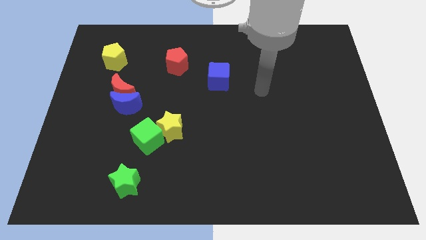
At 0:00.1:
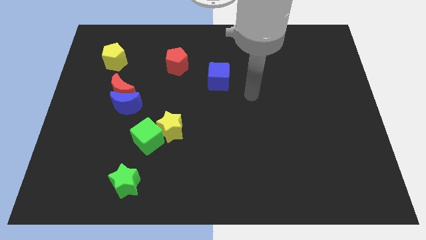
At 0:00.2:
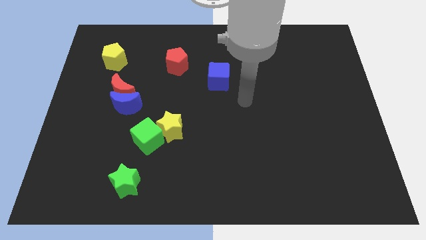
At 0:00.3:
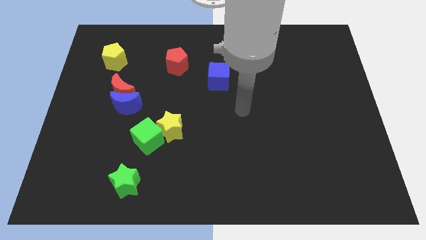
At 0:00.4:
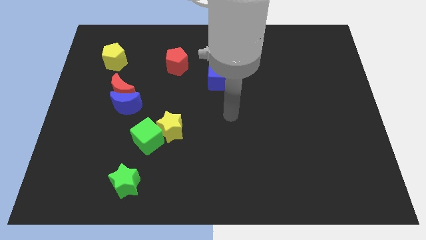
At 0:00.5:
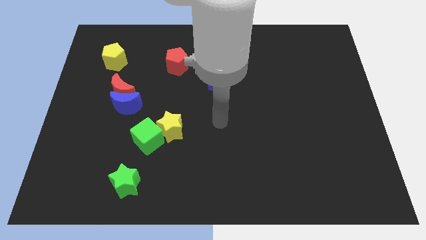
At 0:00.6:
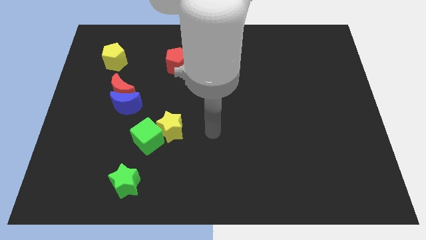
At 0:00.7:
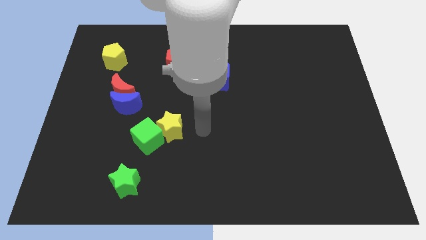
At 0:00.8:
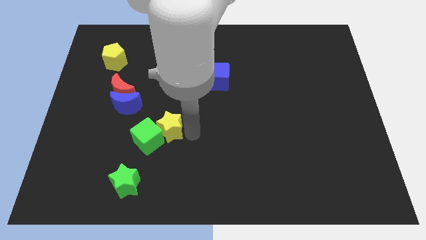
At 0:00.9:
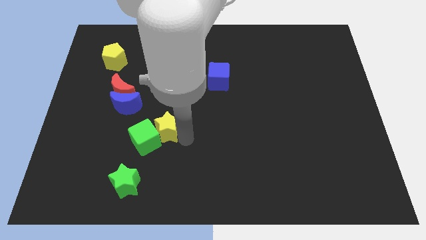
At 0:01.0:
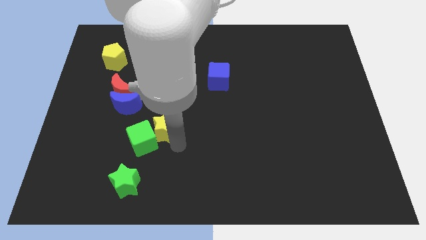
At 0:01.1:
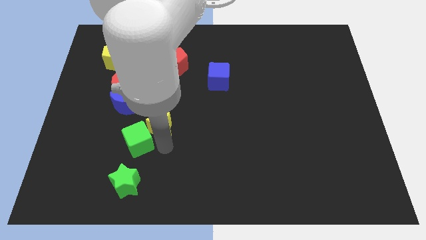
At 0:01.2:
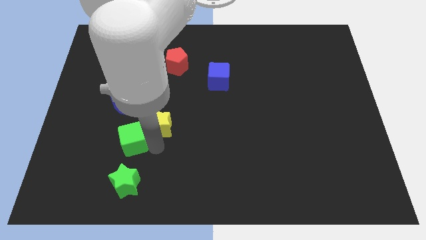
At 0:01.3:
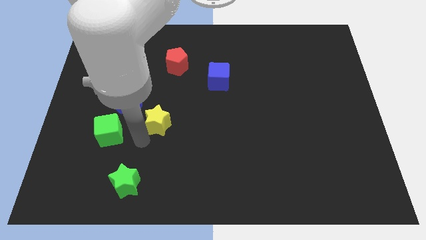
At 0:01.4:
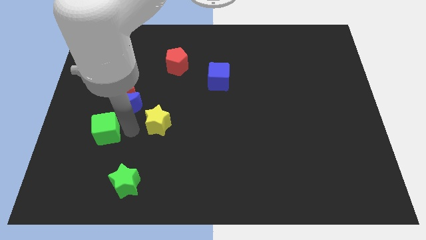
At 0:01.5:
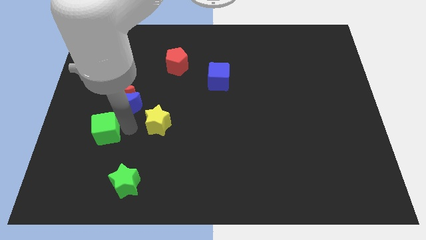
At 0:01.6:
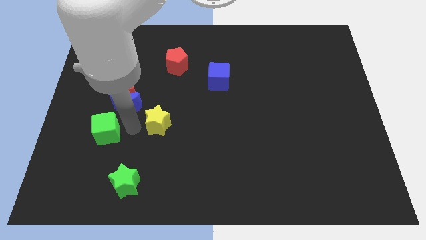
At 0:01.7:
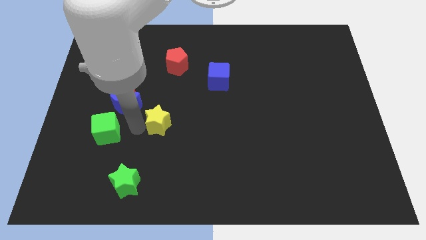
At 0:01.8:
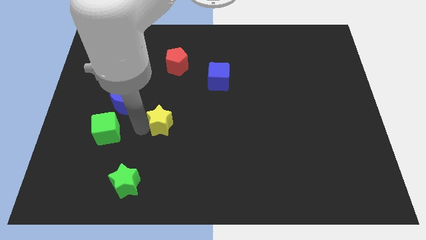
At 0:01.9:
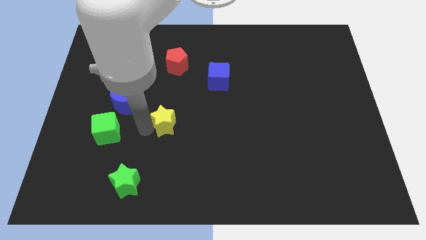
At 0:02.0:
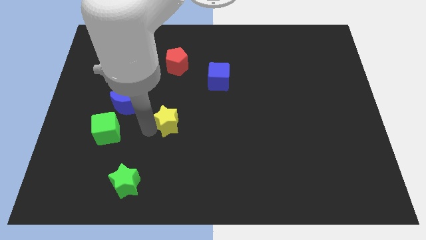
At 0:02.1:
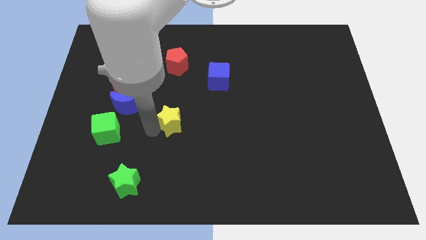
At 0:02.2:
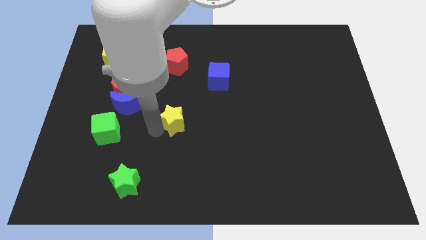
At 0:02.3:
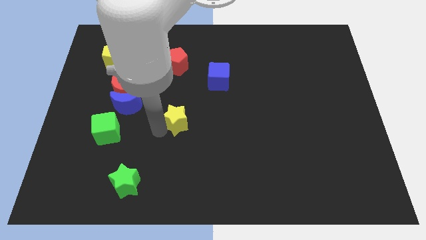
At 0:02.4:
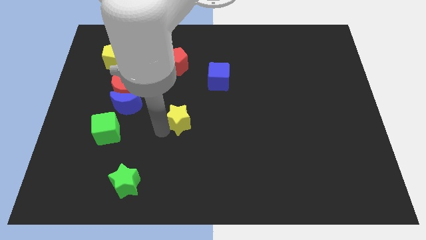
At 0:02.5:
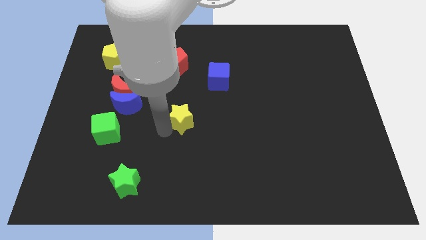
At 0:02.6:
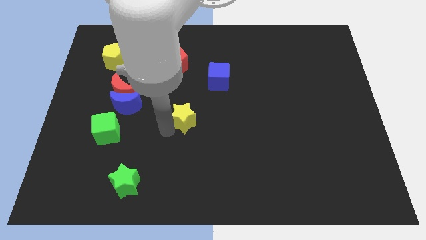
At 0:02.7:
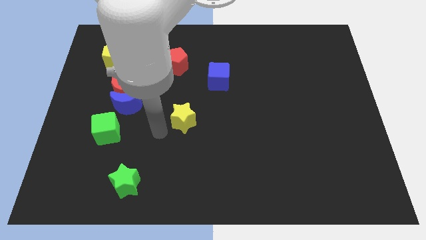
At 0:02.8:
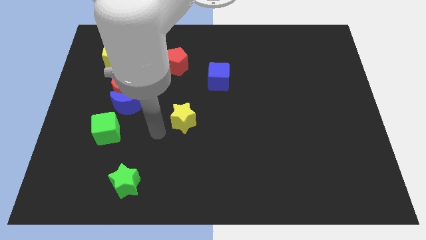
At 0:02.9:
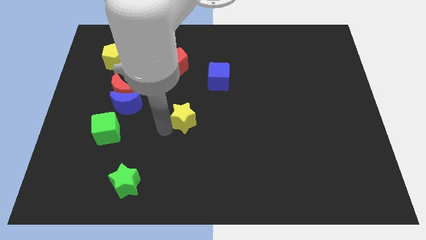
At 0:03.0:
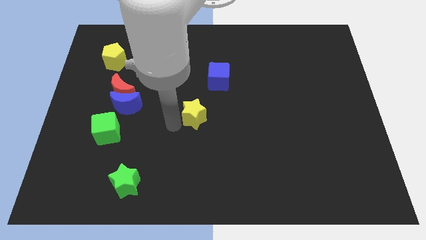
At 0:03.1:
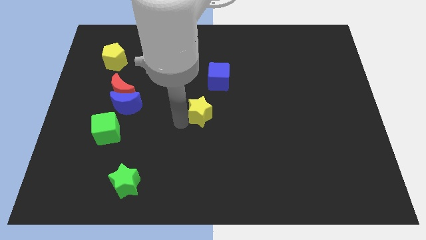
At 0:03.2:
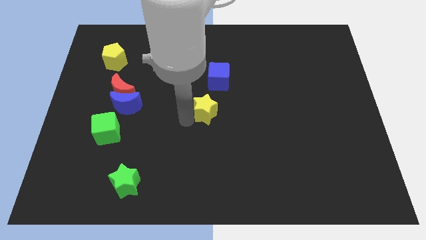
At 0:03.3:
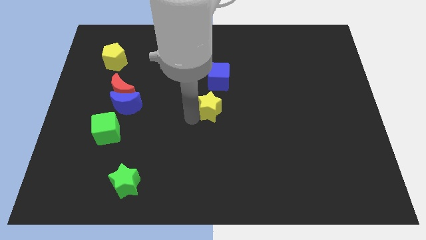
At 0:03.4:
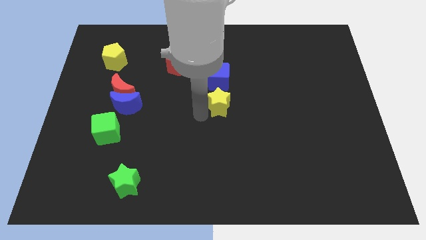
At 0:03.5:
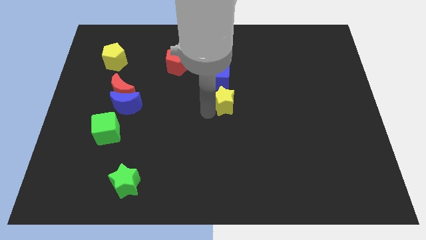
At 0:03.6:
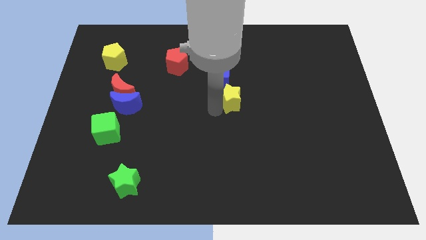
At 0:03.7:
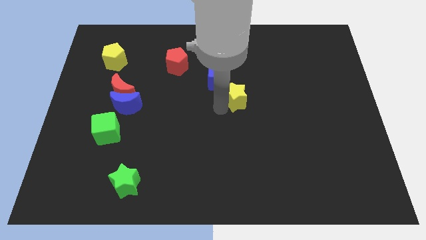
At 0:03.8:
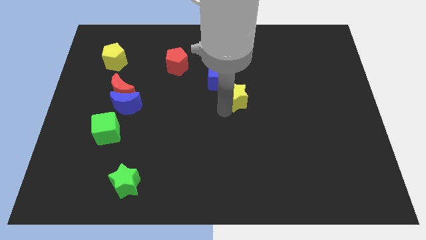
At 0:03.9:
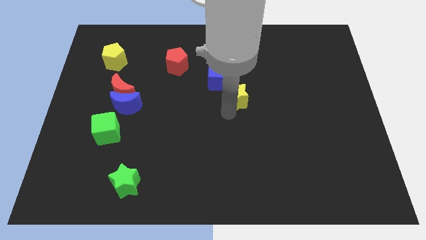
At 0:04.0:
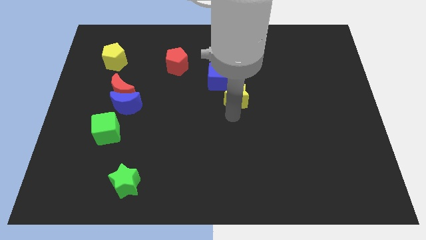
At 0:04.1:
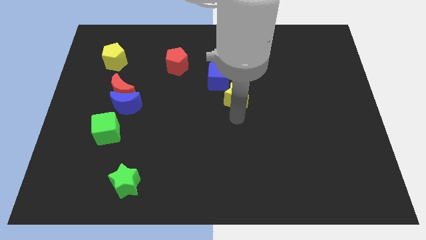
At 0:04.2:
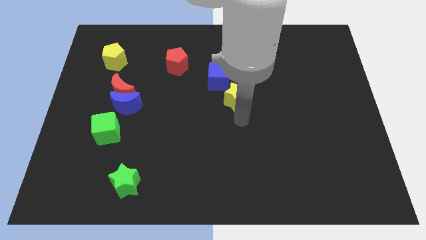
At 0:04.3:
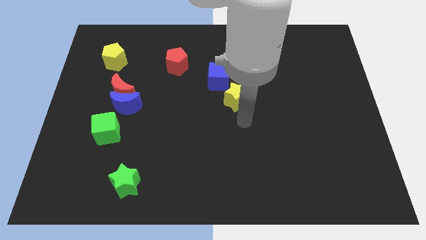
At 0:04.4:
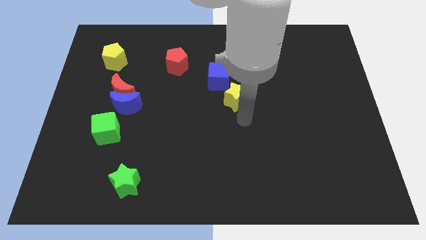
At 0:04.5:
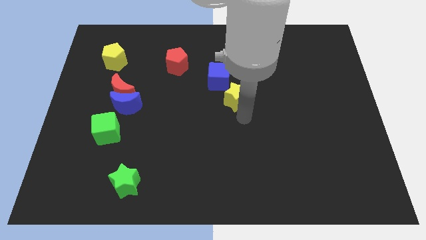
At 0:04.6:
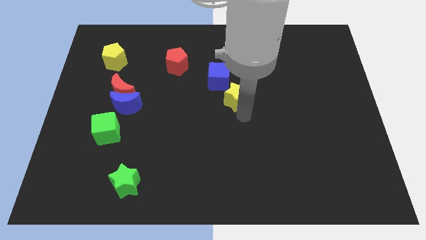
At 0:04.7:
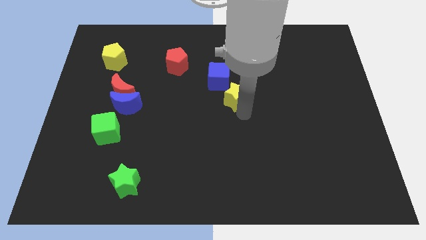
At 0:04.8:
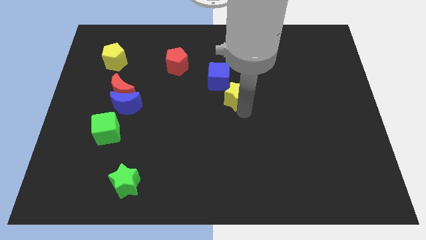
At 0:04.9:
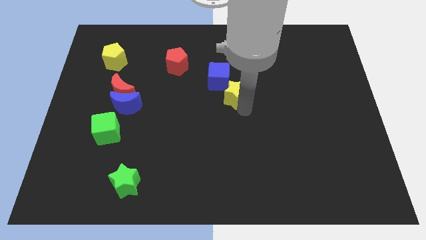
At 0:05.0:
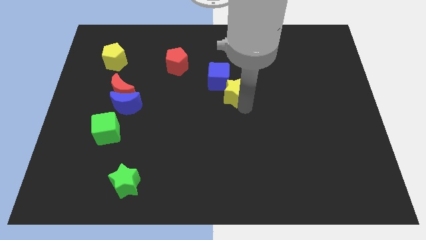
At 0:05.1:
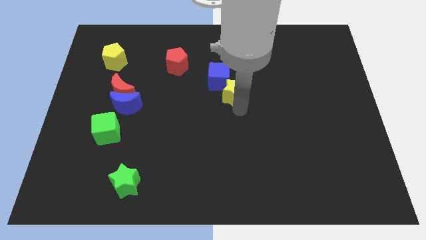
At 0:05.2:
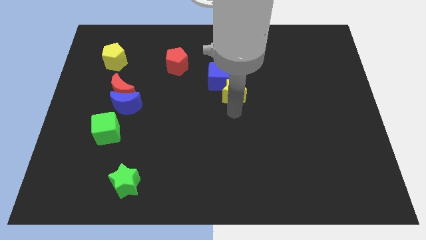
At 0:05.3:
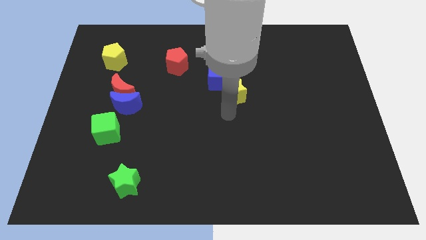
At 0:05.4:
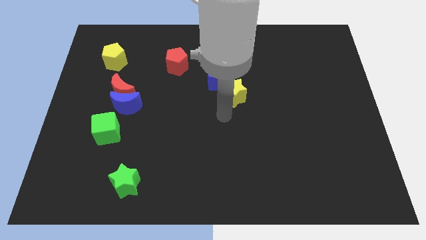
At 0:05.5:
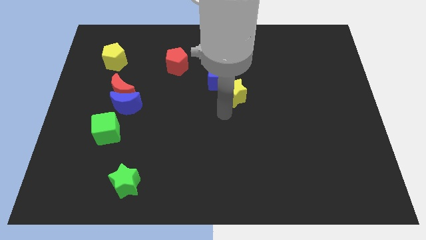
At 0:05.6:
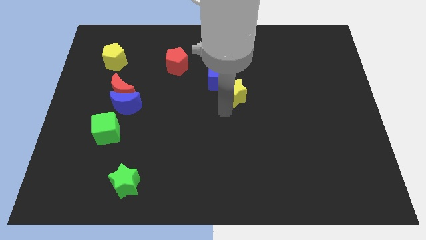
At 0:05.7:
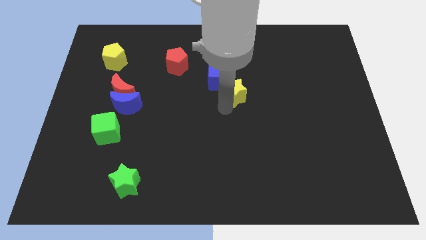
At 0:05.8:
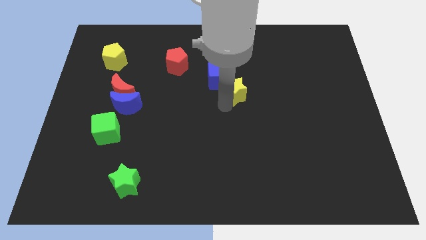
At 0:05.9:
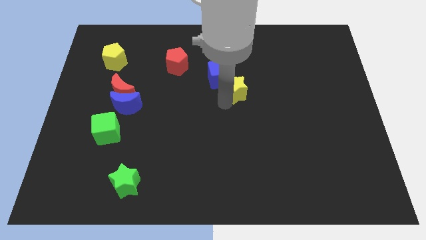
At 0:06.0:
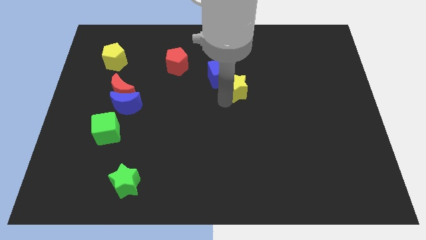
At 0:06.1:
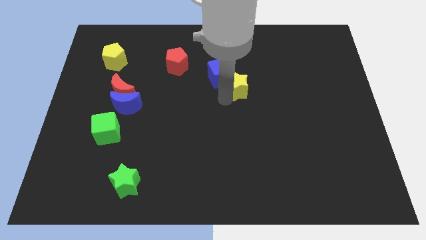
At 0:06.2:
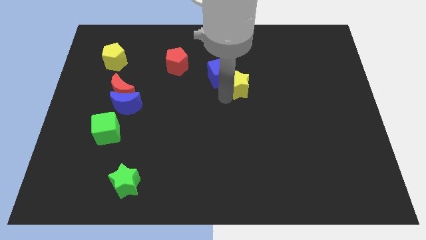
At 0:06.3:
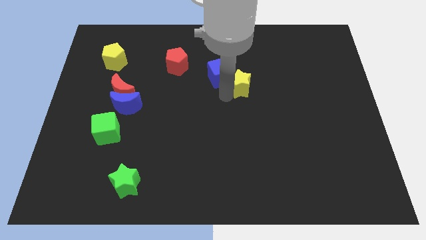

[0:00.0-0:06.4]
slide the yellow star up and then to the right

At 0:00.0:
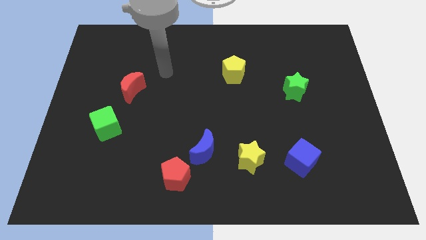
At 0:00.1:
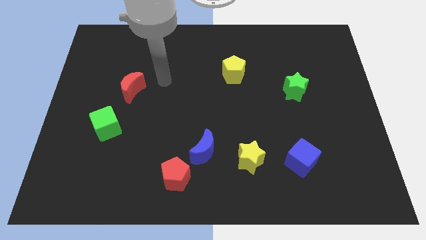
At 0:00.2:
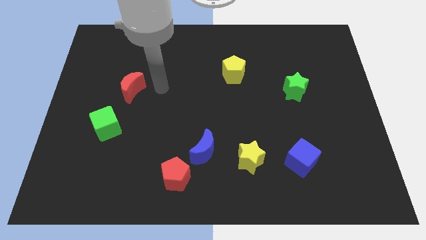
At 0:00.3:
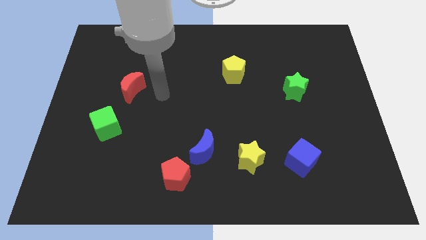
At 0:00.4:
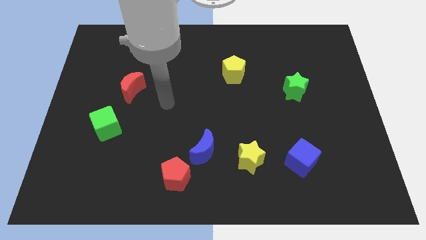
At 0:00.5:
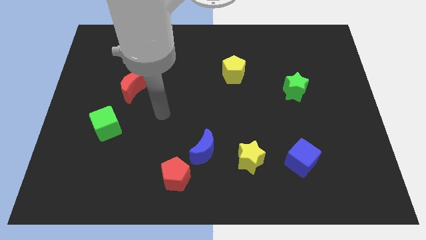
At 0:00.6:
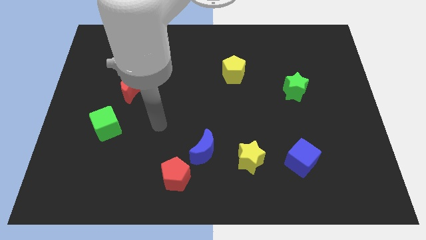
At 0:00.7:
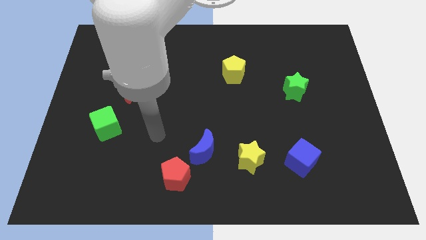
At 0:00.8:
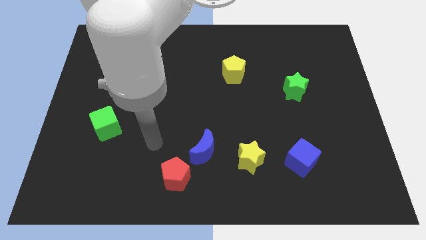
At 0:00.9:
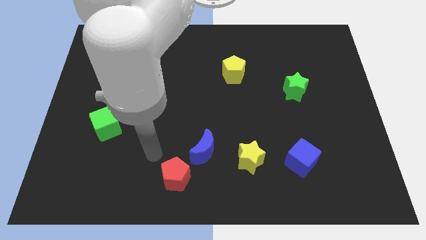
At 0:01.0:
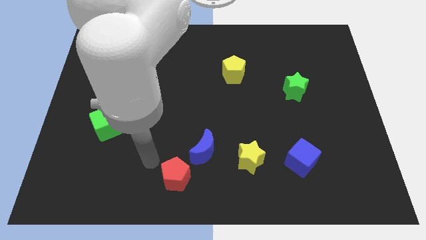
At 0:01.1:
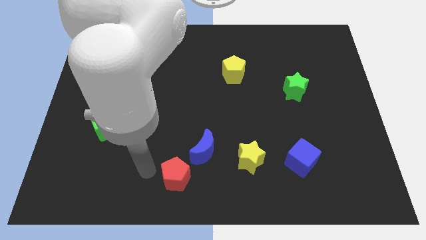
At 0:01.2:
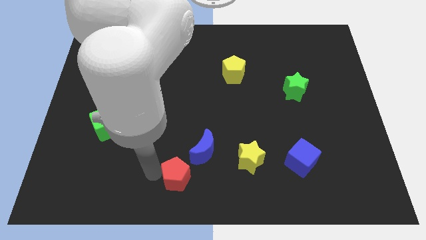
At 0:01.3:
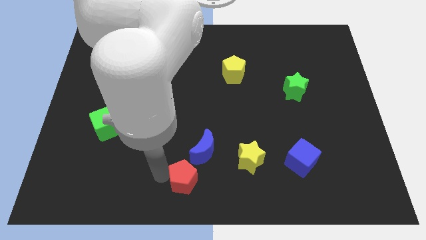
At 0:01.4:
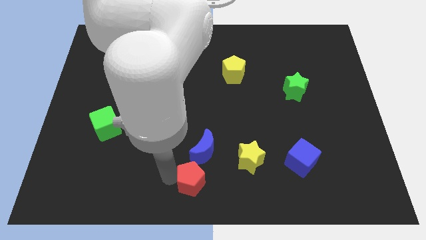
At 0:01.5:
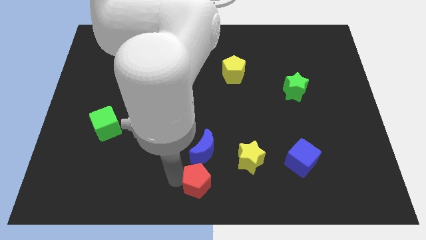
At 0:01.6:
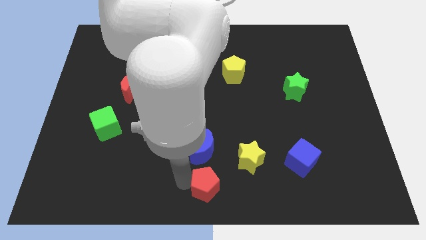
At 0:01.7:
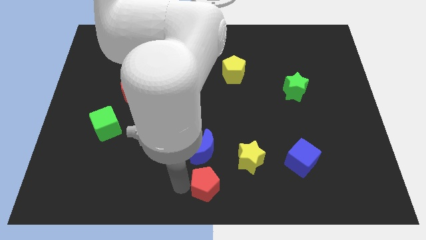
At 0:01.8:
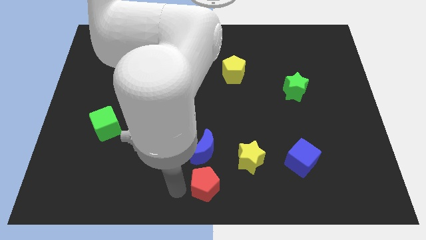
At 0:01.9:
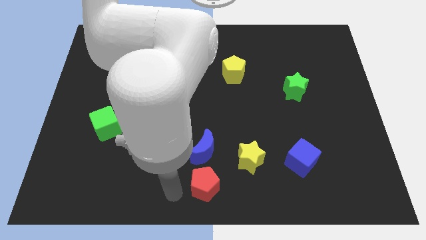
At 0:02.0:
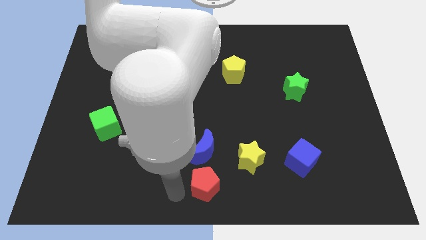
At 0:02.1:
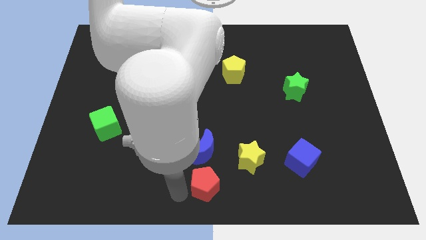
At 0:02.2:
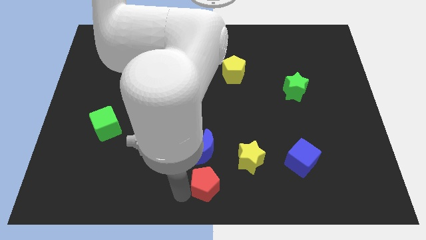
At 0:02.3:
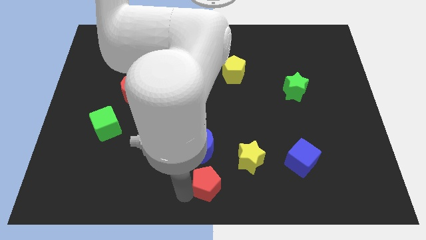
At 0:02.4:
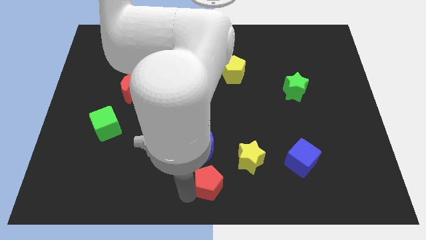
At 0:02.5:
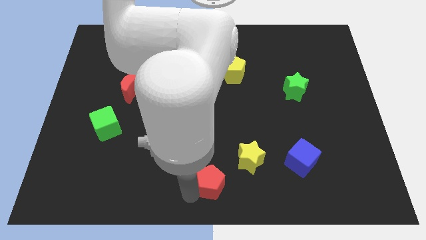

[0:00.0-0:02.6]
move the red pentagon right a little
